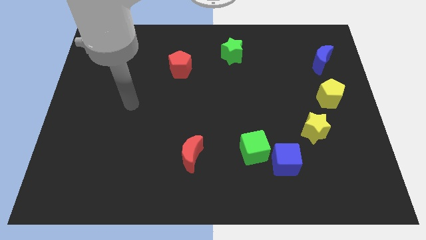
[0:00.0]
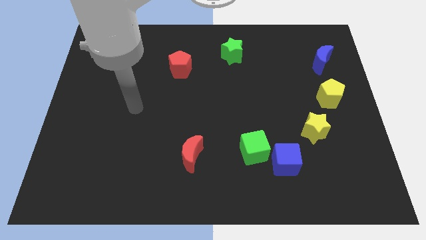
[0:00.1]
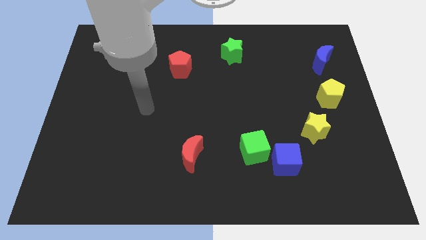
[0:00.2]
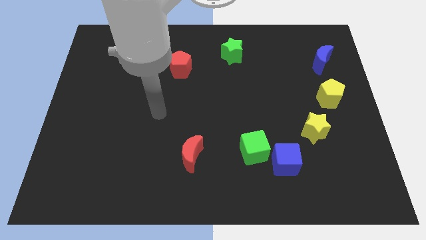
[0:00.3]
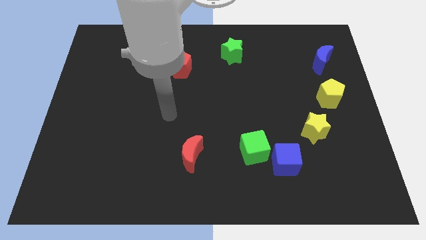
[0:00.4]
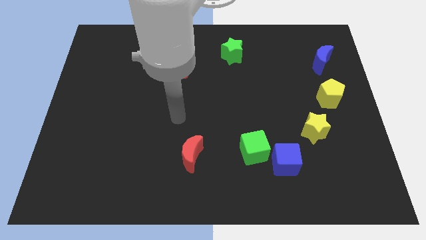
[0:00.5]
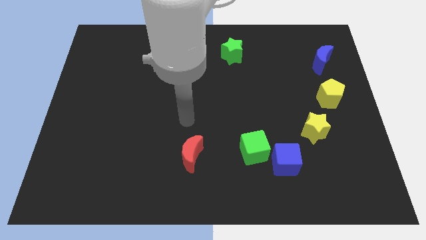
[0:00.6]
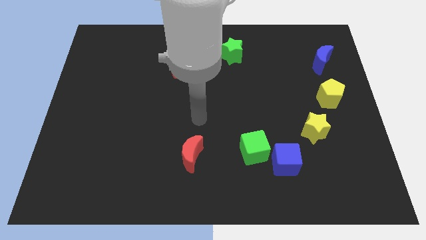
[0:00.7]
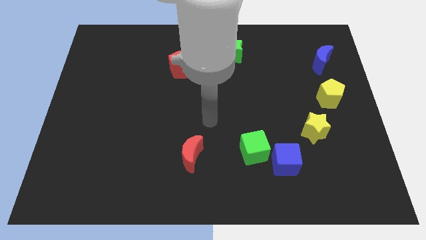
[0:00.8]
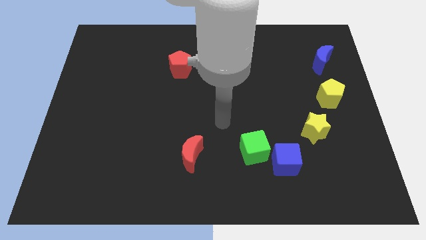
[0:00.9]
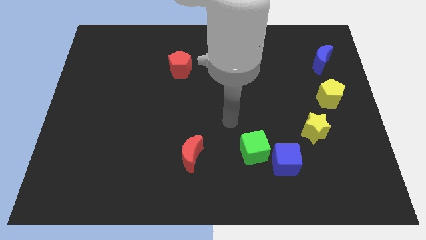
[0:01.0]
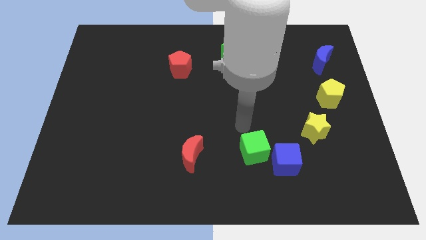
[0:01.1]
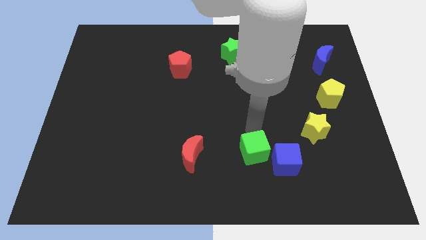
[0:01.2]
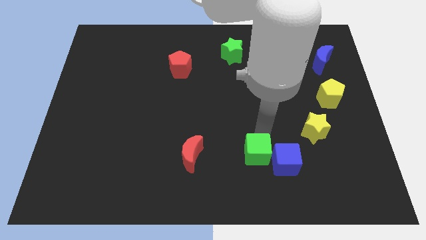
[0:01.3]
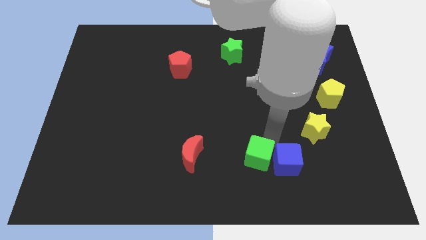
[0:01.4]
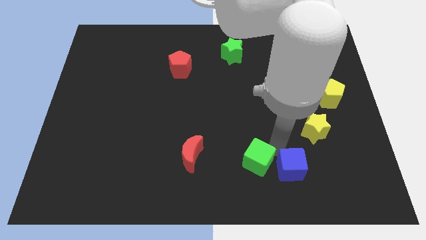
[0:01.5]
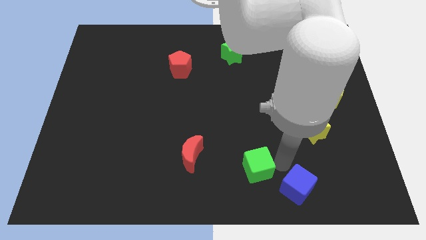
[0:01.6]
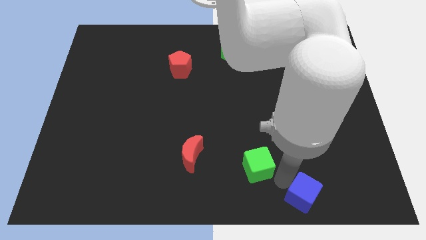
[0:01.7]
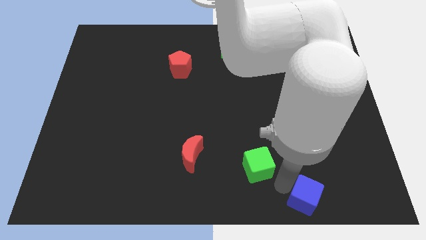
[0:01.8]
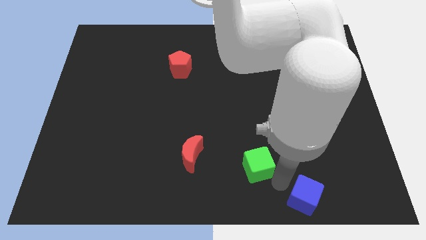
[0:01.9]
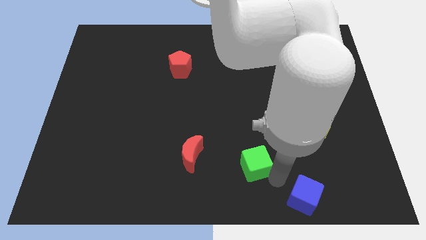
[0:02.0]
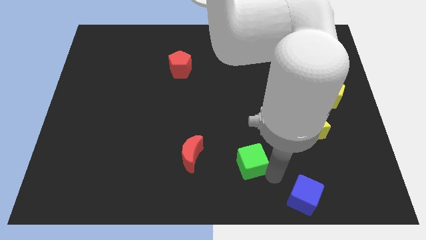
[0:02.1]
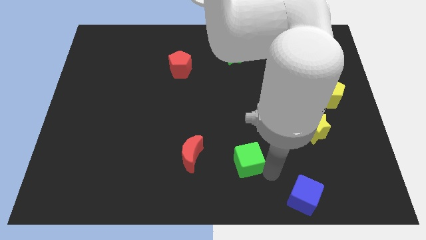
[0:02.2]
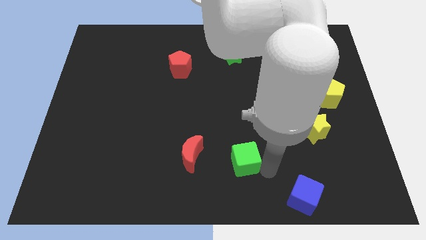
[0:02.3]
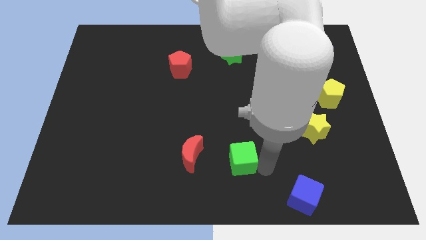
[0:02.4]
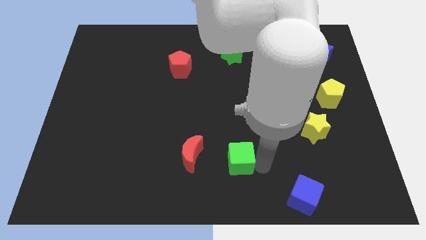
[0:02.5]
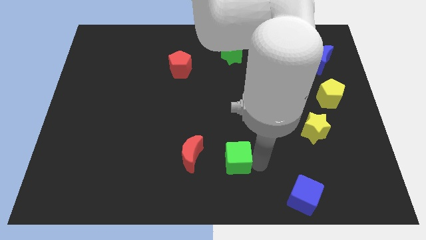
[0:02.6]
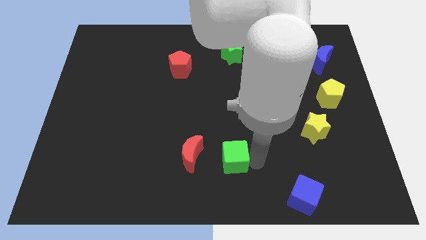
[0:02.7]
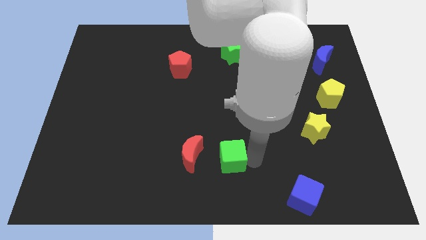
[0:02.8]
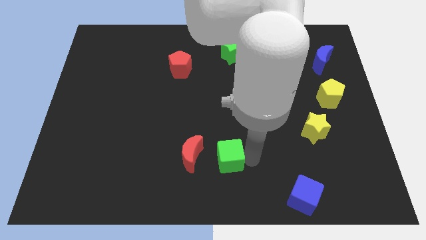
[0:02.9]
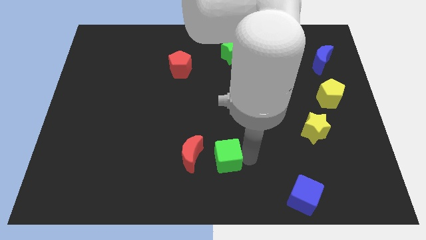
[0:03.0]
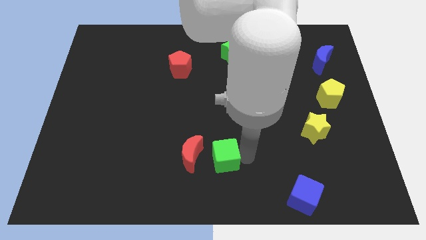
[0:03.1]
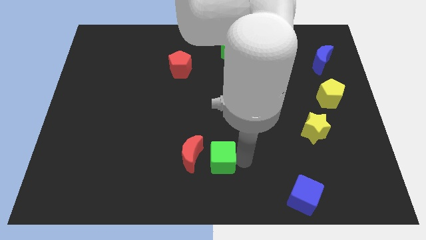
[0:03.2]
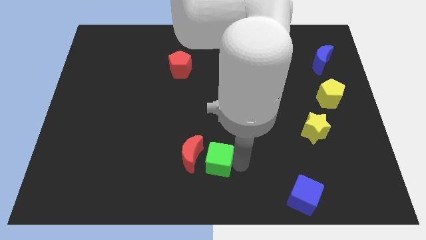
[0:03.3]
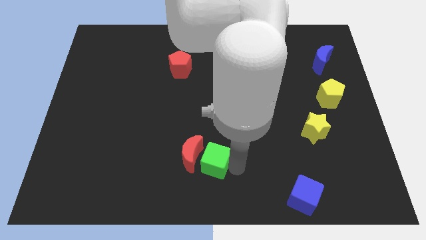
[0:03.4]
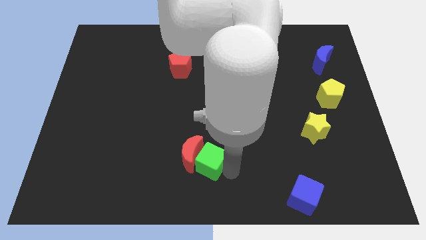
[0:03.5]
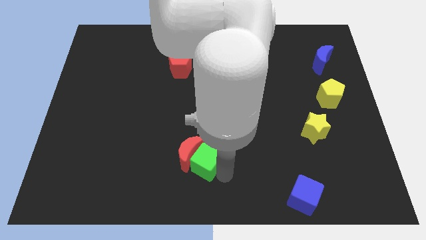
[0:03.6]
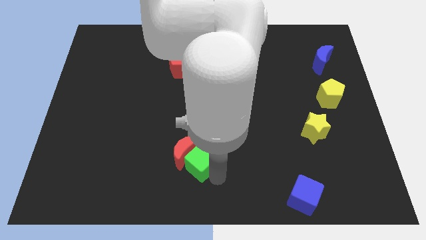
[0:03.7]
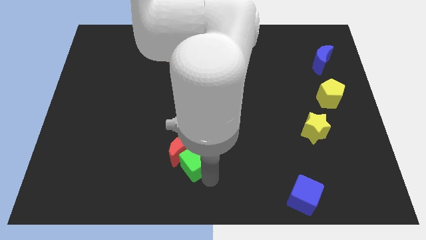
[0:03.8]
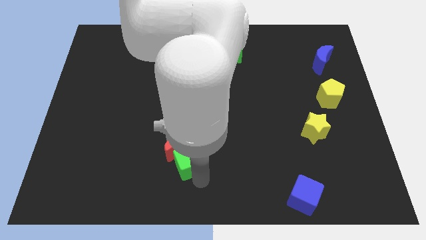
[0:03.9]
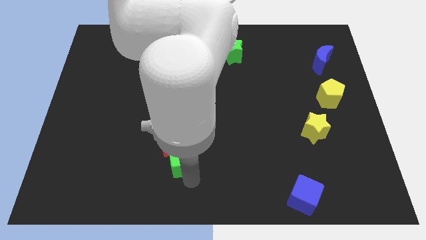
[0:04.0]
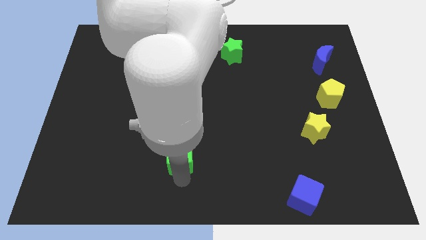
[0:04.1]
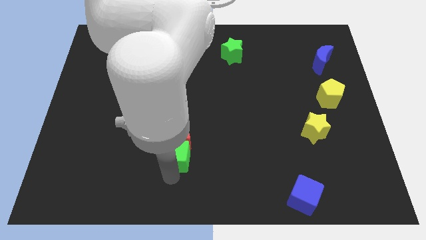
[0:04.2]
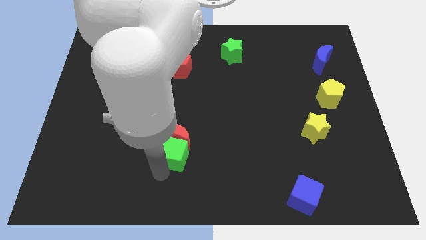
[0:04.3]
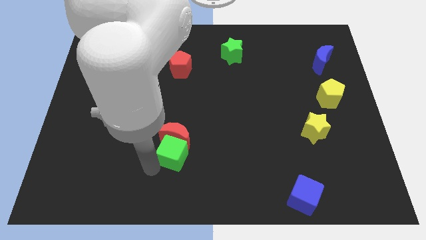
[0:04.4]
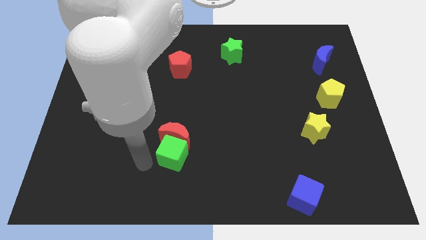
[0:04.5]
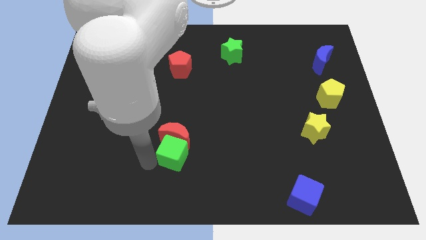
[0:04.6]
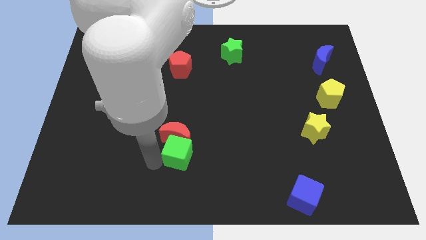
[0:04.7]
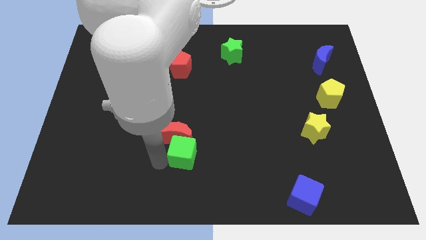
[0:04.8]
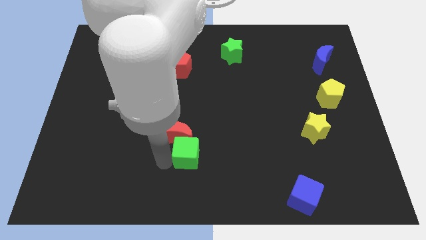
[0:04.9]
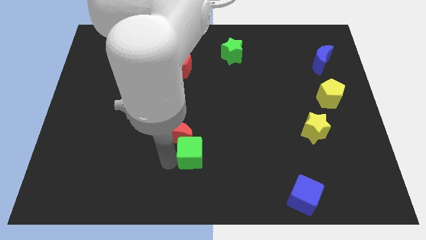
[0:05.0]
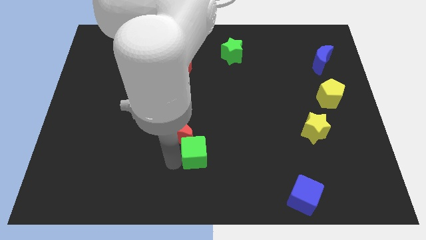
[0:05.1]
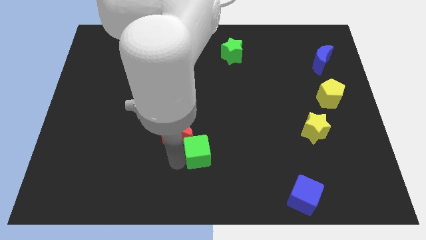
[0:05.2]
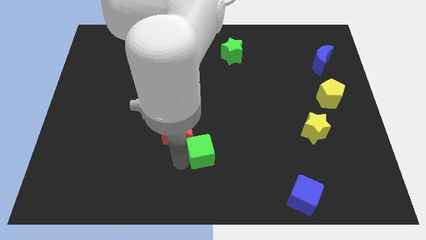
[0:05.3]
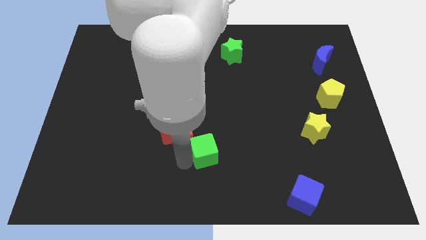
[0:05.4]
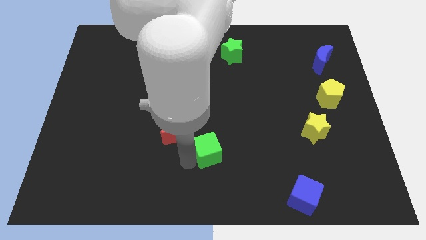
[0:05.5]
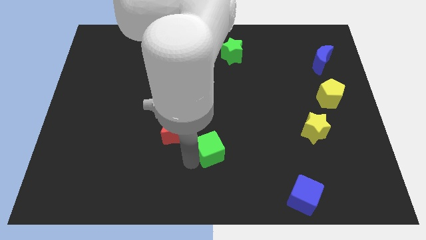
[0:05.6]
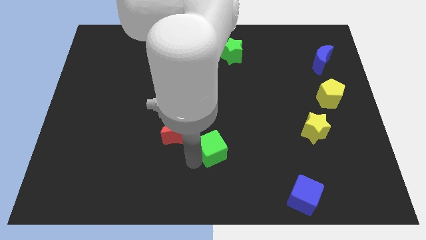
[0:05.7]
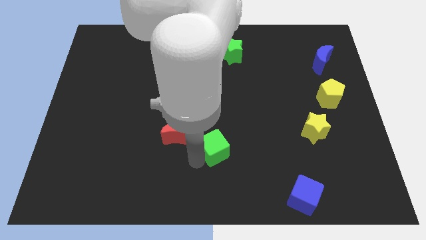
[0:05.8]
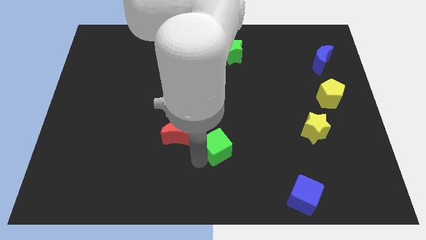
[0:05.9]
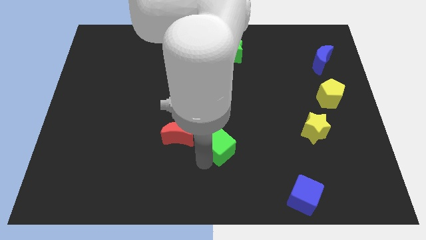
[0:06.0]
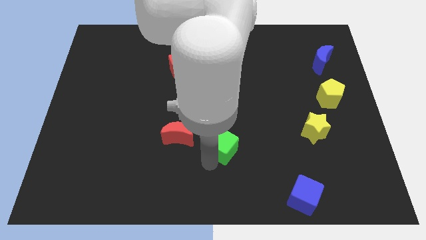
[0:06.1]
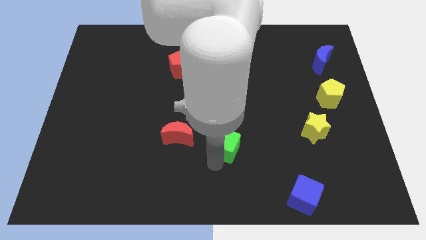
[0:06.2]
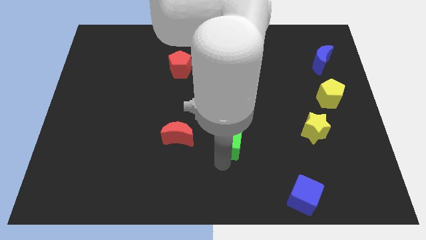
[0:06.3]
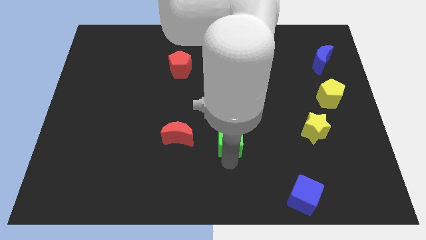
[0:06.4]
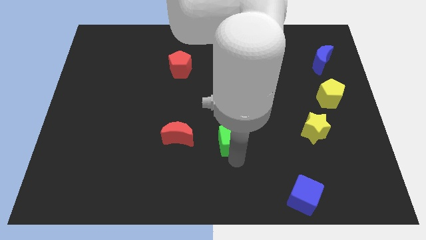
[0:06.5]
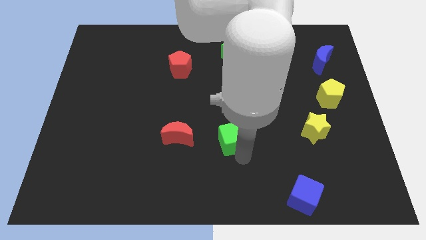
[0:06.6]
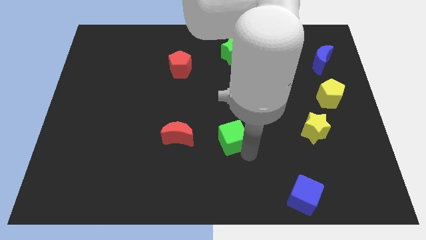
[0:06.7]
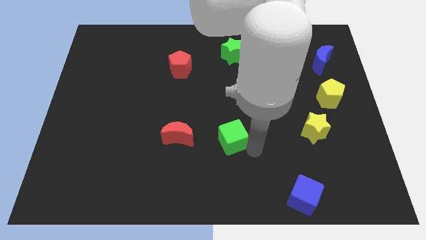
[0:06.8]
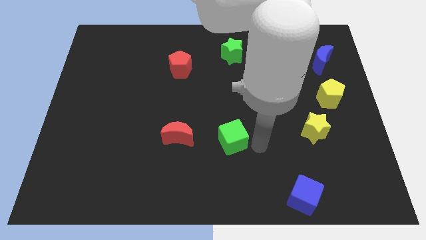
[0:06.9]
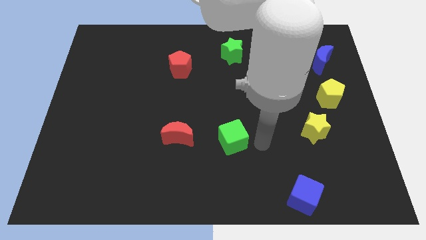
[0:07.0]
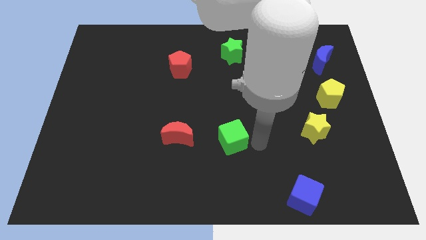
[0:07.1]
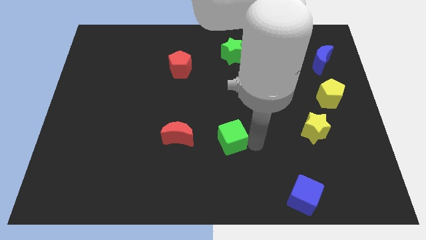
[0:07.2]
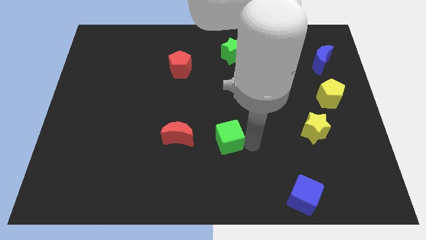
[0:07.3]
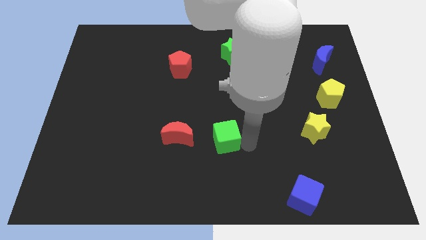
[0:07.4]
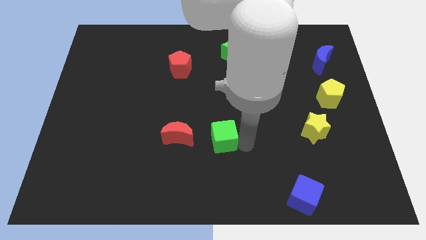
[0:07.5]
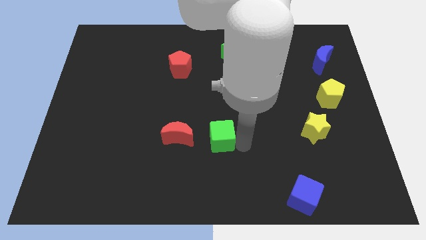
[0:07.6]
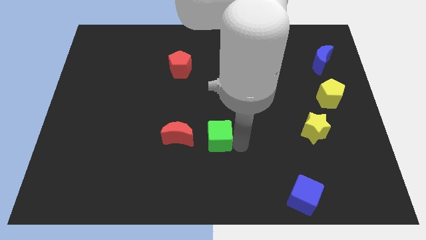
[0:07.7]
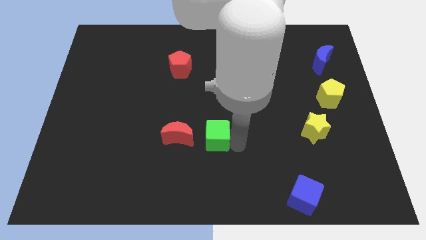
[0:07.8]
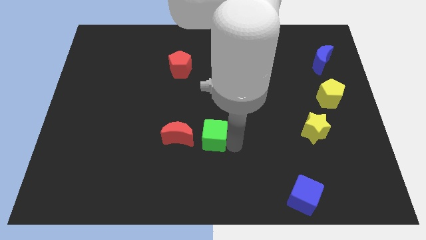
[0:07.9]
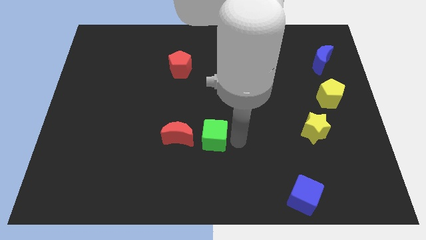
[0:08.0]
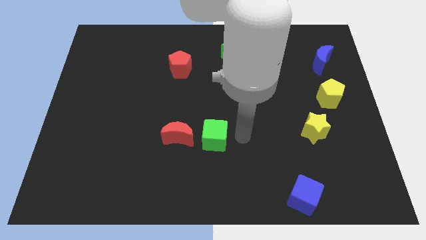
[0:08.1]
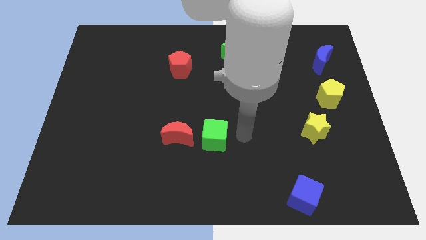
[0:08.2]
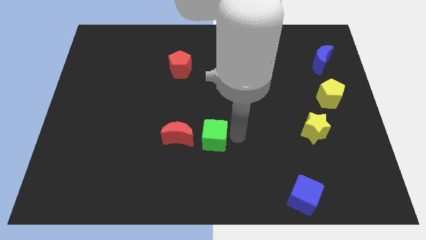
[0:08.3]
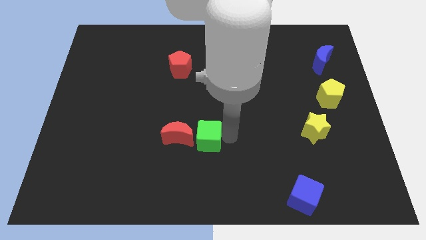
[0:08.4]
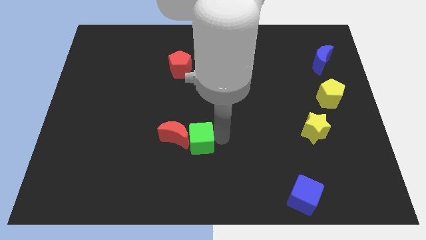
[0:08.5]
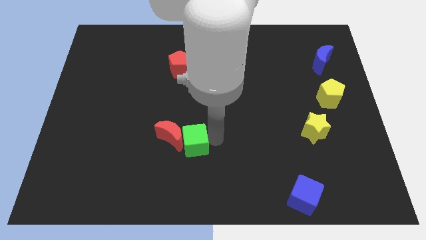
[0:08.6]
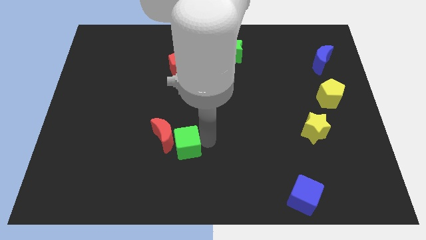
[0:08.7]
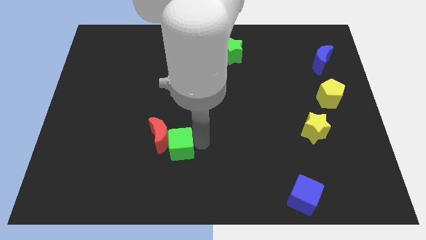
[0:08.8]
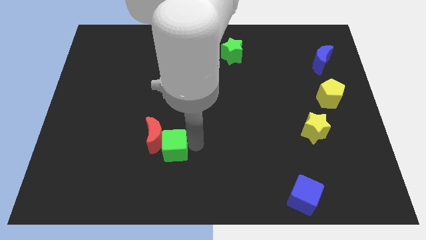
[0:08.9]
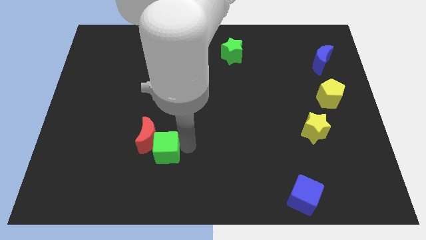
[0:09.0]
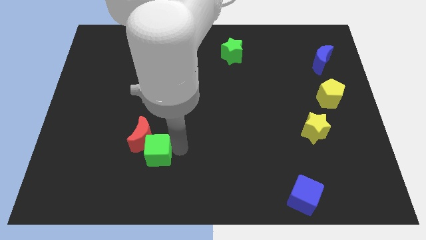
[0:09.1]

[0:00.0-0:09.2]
move the green cube to the left
